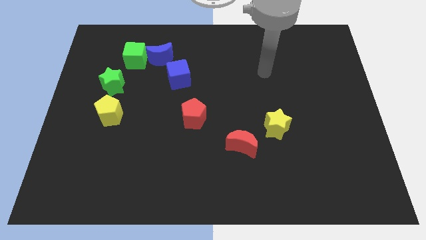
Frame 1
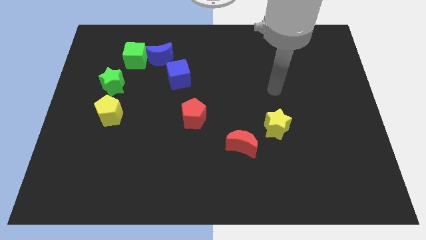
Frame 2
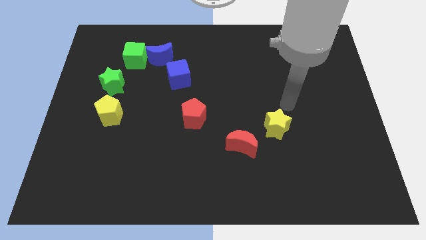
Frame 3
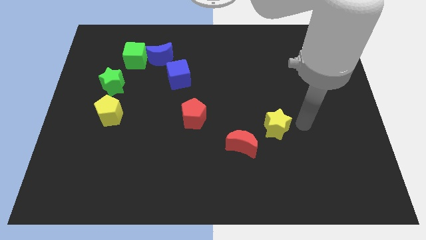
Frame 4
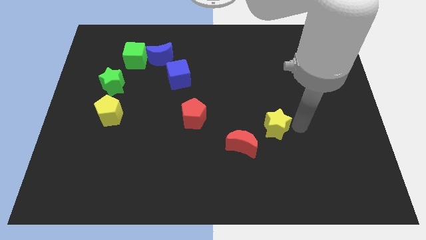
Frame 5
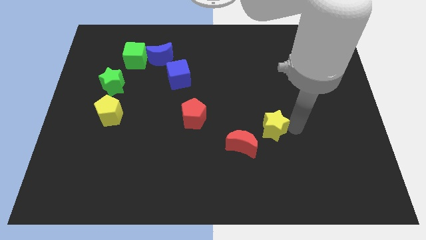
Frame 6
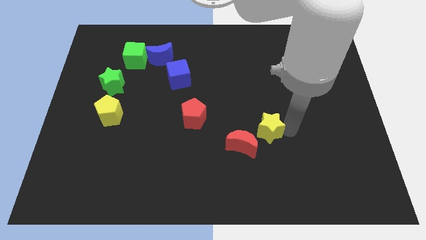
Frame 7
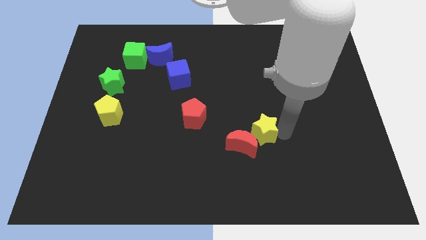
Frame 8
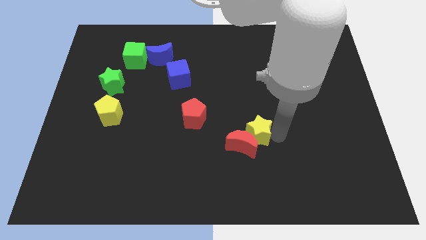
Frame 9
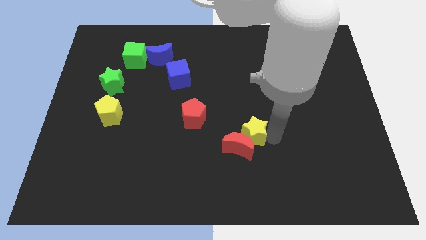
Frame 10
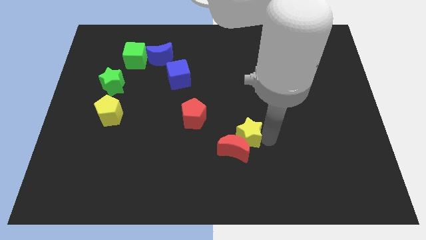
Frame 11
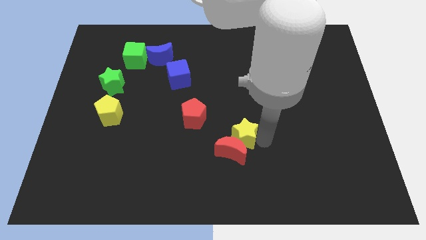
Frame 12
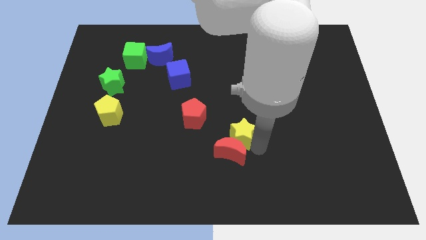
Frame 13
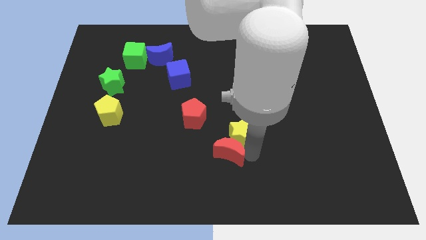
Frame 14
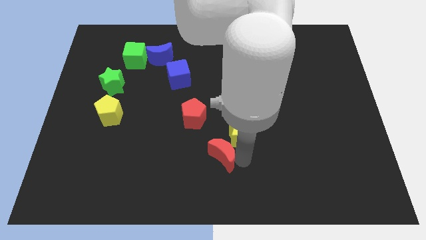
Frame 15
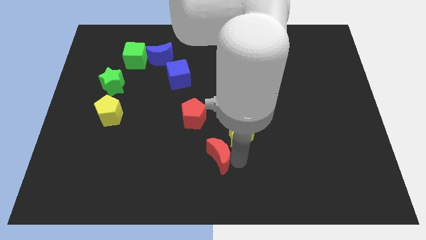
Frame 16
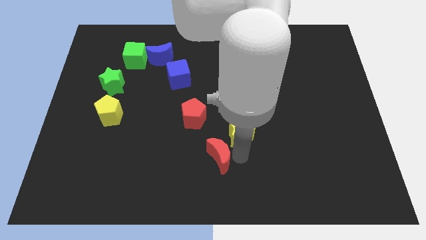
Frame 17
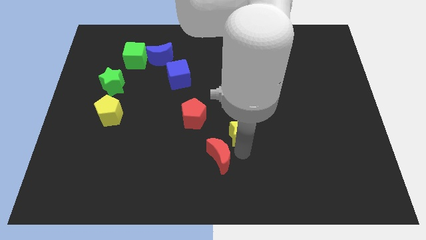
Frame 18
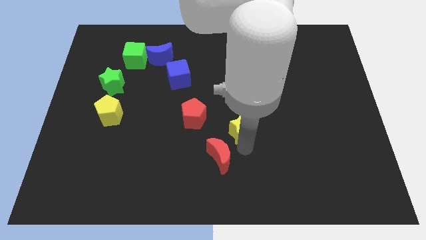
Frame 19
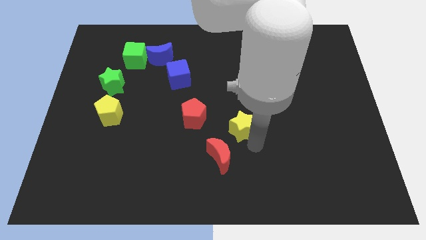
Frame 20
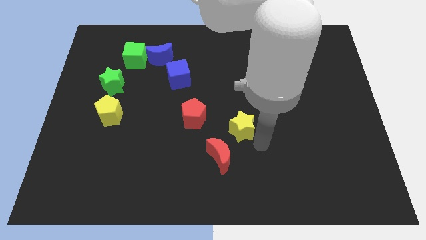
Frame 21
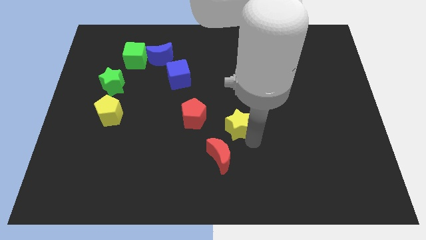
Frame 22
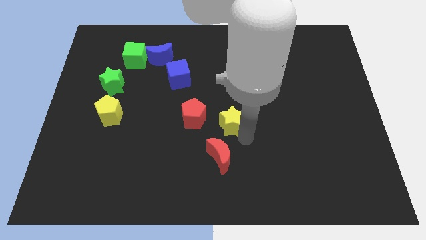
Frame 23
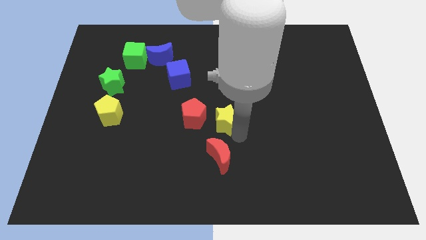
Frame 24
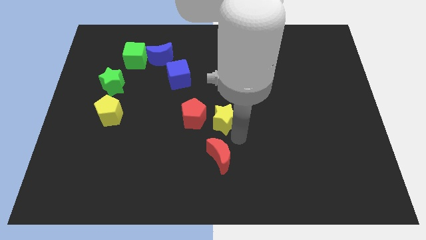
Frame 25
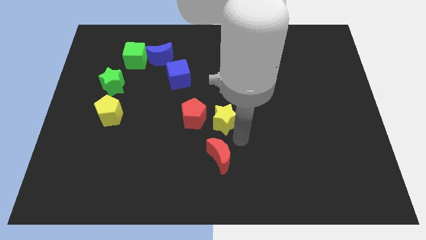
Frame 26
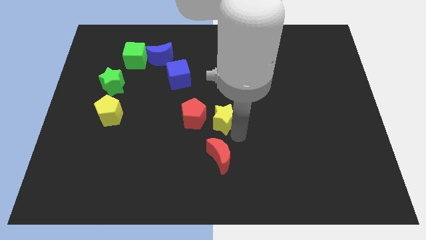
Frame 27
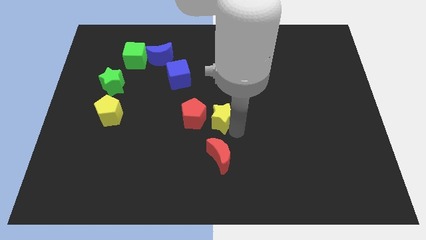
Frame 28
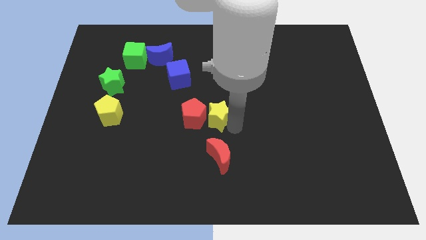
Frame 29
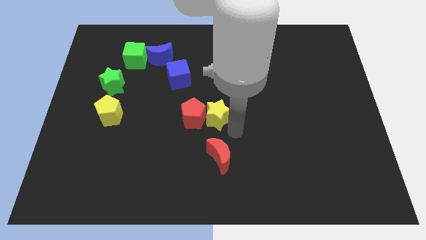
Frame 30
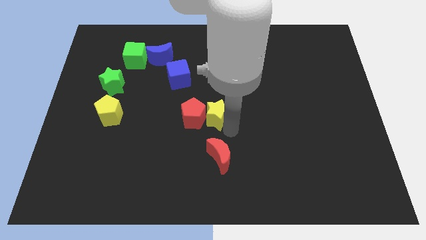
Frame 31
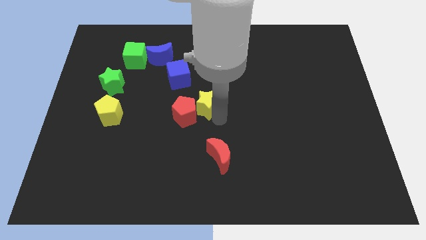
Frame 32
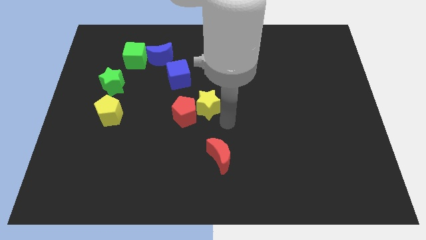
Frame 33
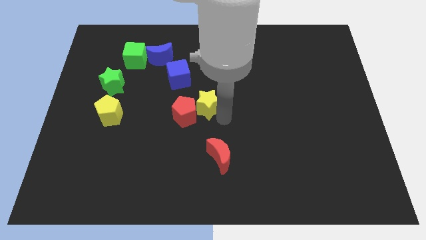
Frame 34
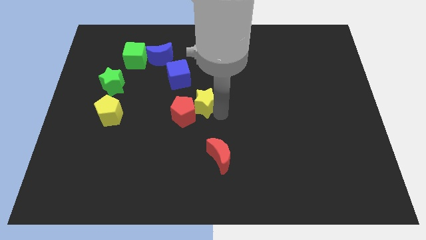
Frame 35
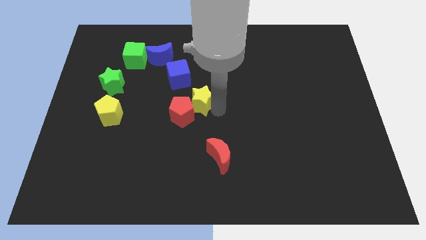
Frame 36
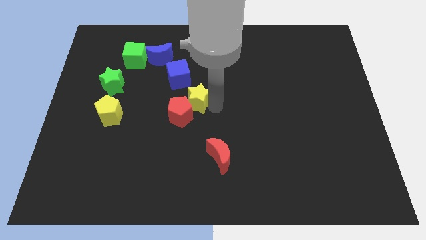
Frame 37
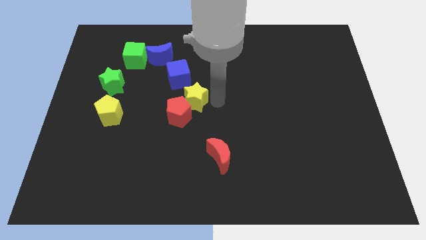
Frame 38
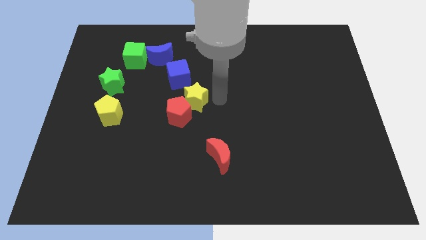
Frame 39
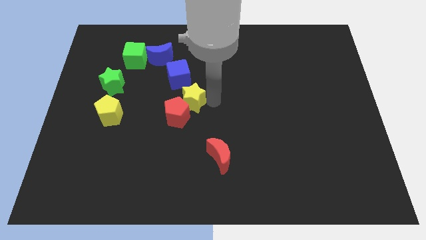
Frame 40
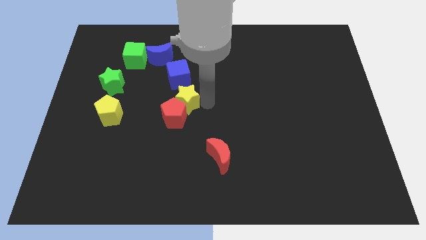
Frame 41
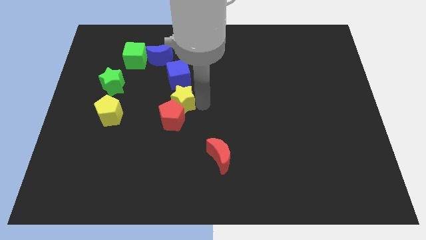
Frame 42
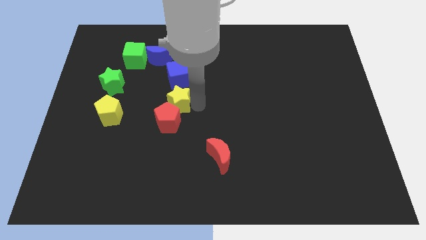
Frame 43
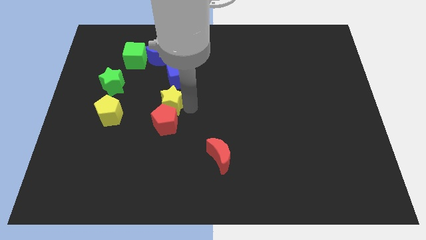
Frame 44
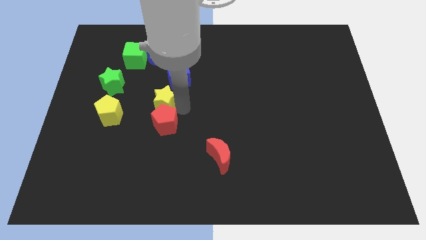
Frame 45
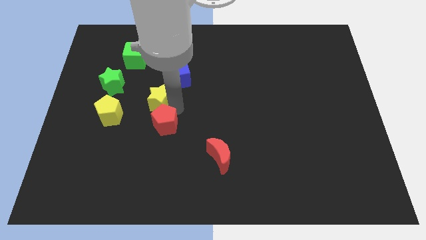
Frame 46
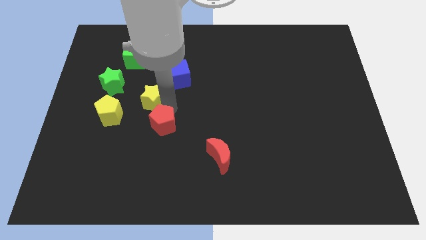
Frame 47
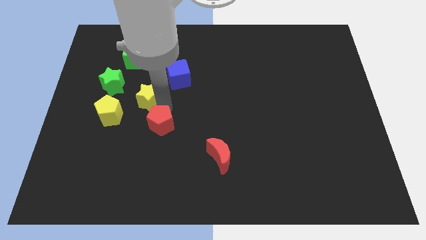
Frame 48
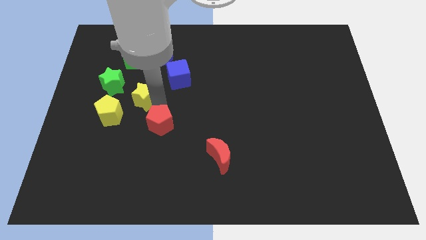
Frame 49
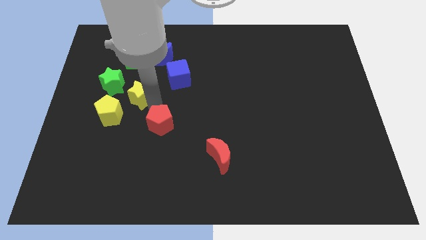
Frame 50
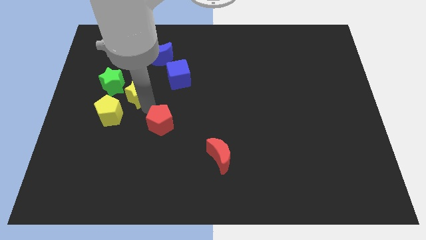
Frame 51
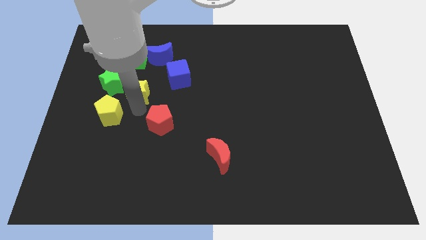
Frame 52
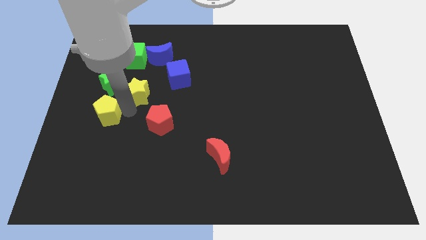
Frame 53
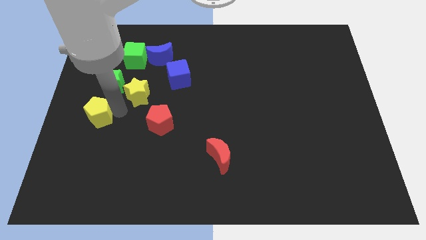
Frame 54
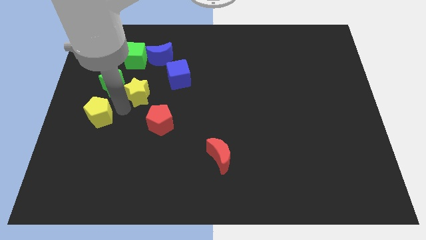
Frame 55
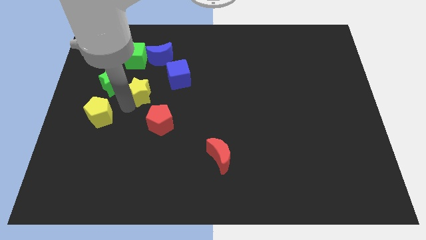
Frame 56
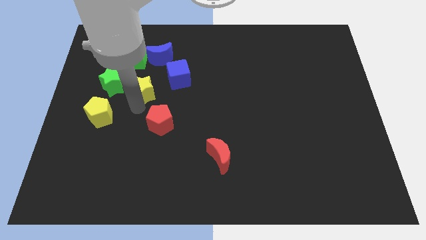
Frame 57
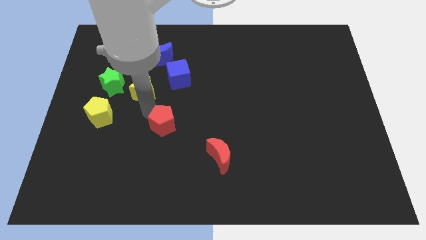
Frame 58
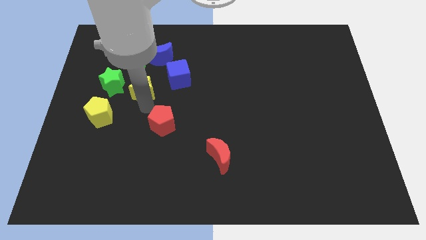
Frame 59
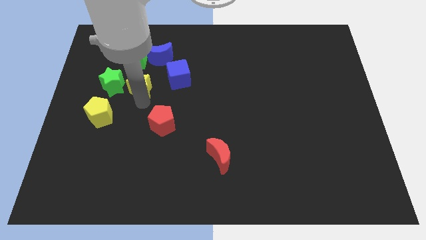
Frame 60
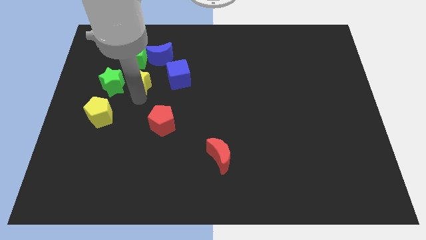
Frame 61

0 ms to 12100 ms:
put the yellow star to the top right side of the green star

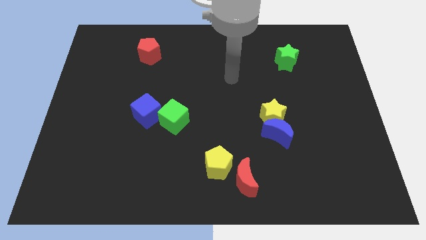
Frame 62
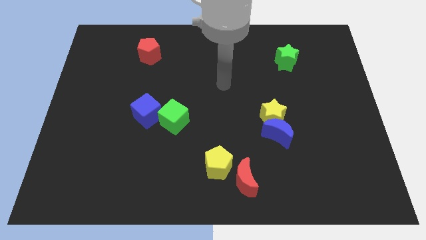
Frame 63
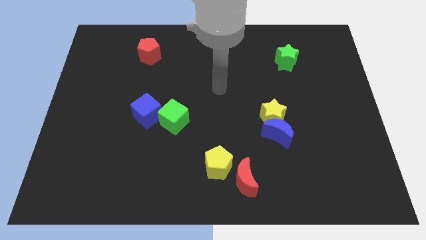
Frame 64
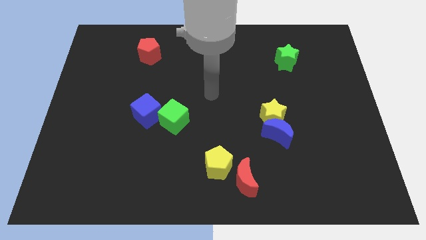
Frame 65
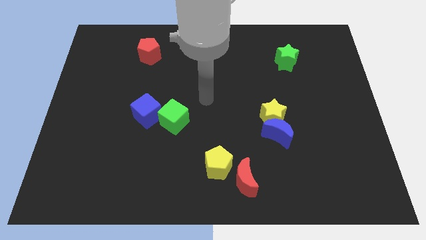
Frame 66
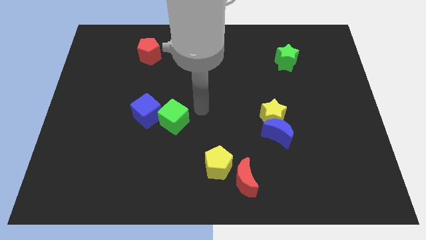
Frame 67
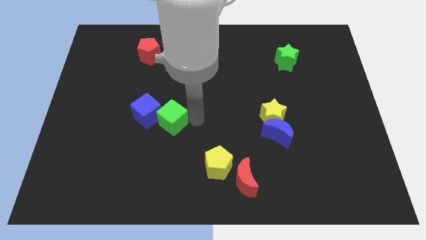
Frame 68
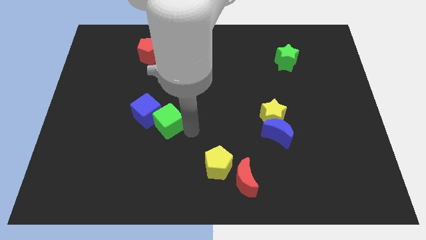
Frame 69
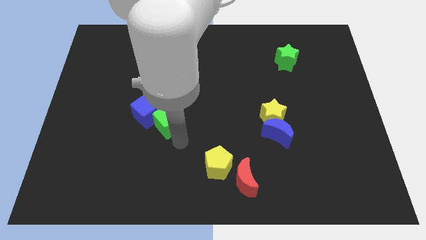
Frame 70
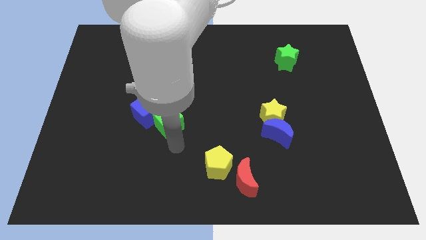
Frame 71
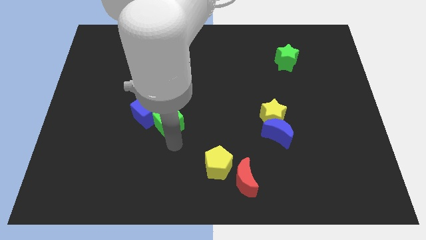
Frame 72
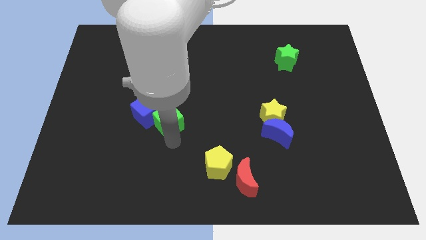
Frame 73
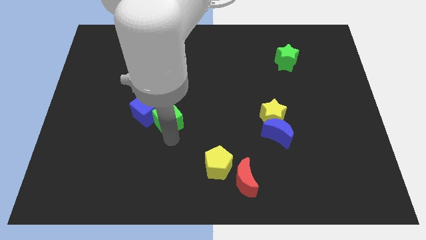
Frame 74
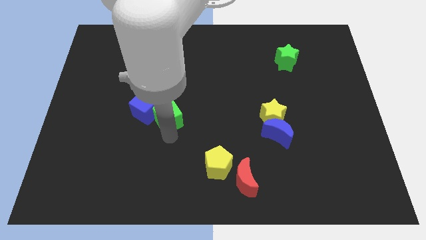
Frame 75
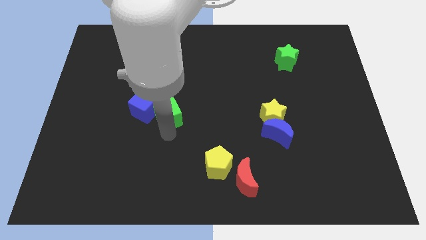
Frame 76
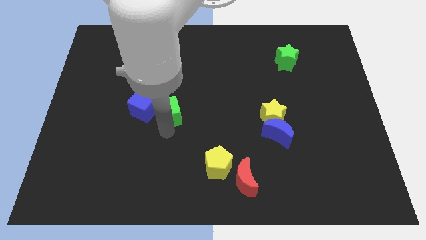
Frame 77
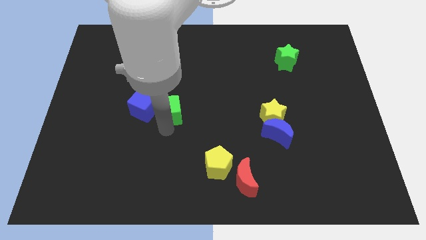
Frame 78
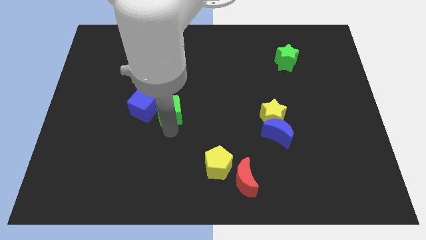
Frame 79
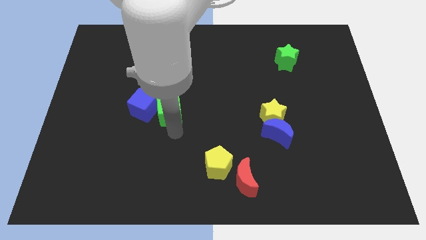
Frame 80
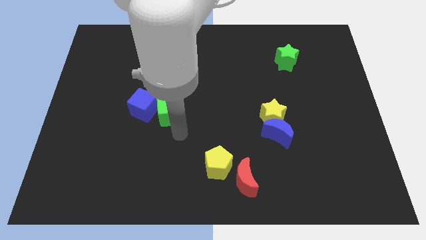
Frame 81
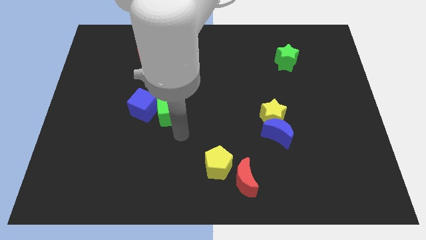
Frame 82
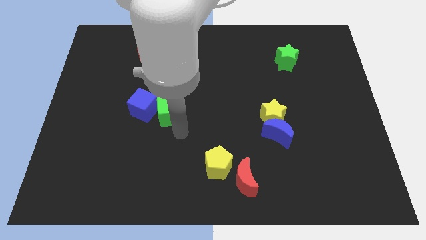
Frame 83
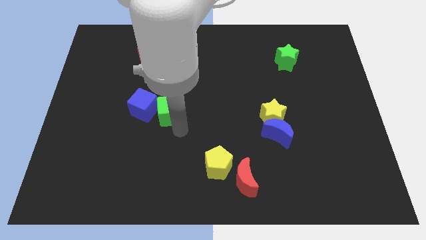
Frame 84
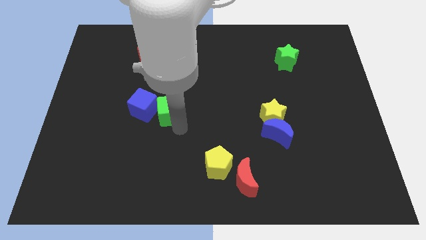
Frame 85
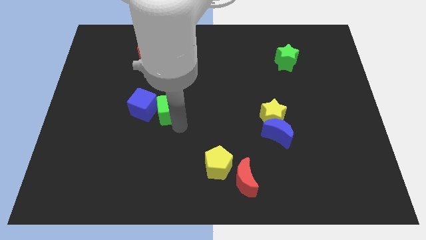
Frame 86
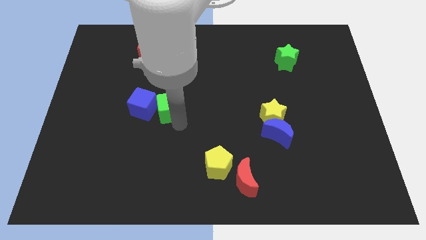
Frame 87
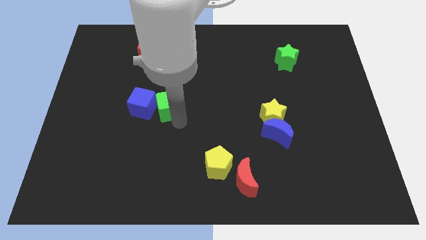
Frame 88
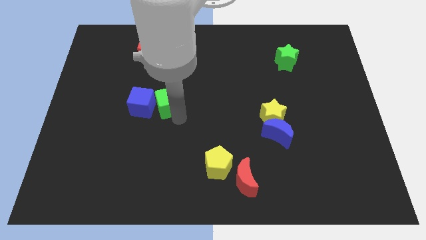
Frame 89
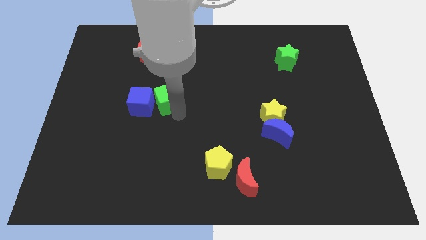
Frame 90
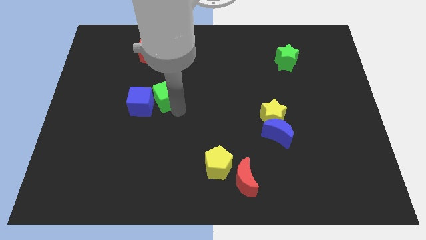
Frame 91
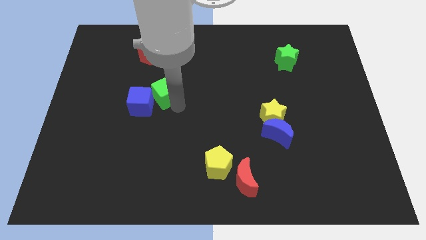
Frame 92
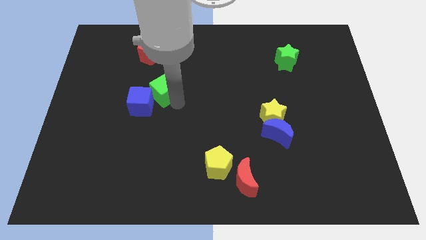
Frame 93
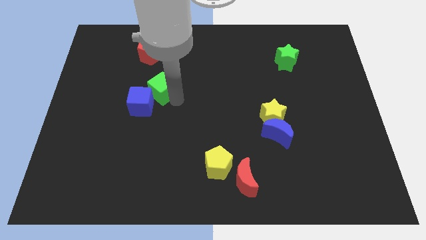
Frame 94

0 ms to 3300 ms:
put the green cube above the blue cube
